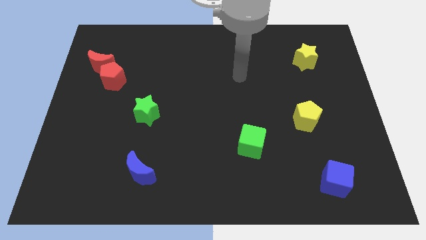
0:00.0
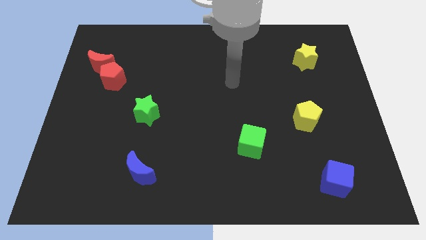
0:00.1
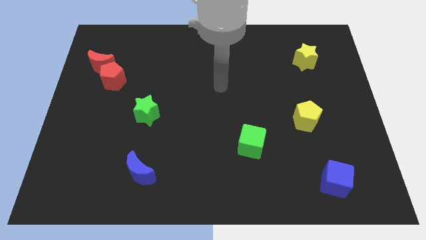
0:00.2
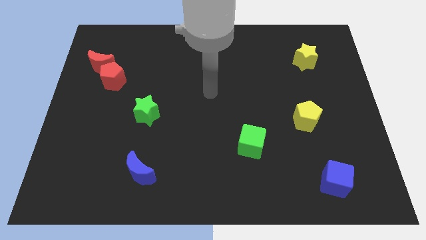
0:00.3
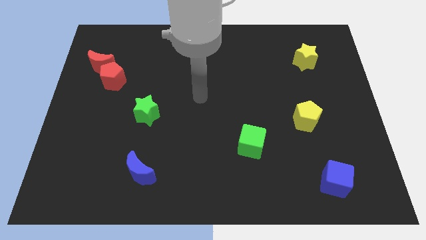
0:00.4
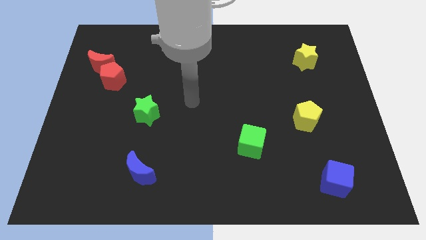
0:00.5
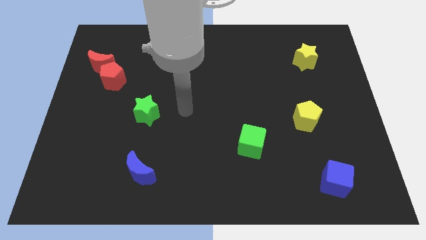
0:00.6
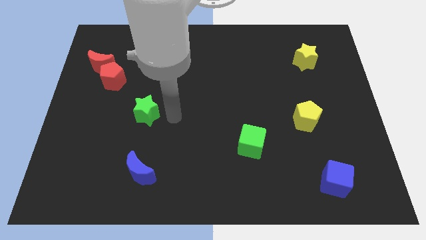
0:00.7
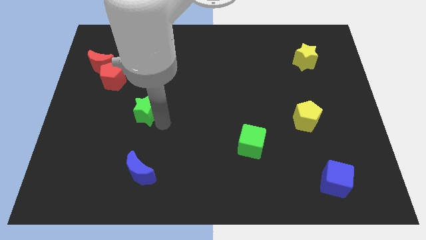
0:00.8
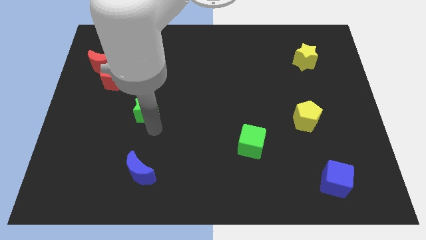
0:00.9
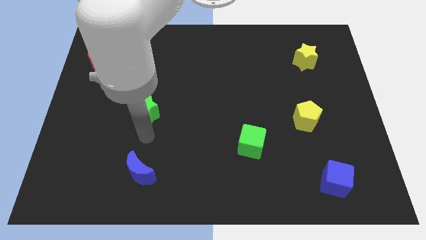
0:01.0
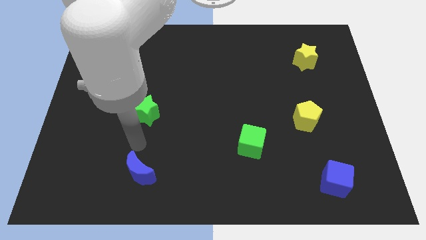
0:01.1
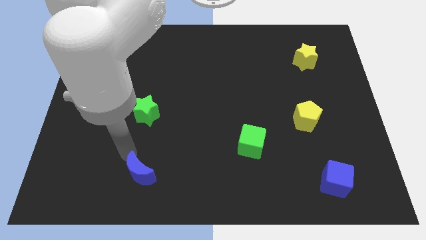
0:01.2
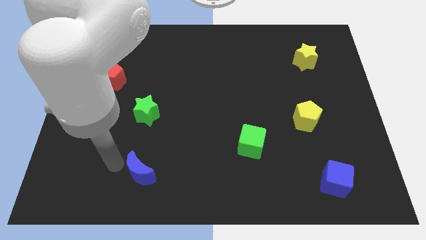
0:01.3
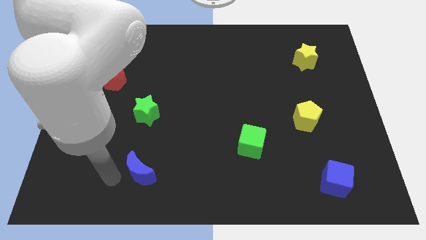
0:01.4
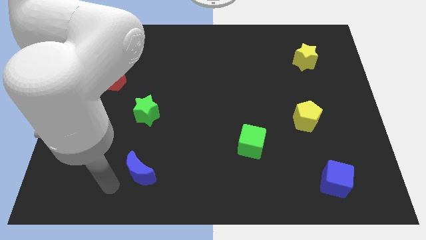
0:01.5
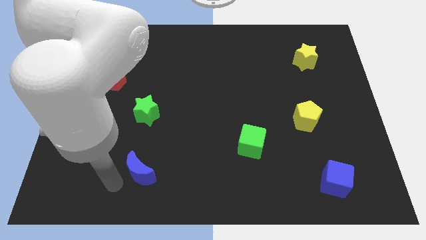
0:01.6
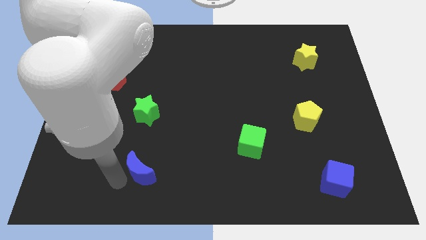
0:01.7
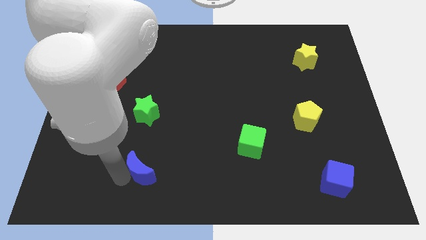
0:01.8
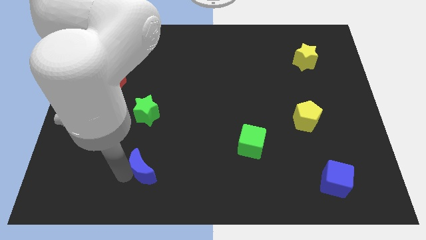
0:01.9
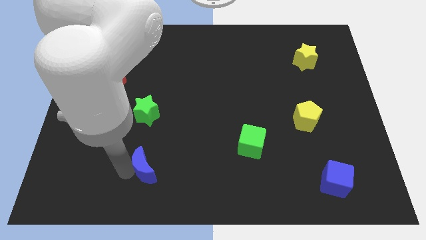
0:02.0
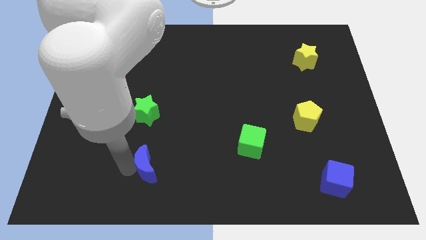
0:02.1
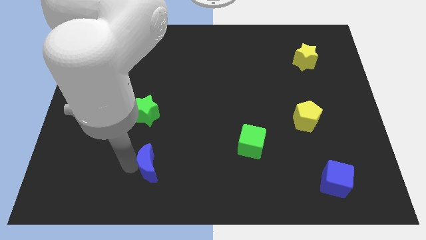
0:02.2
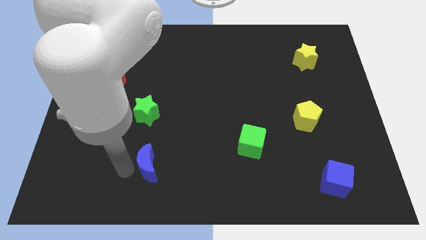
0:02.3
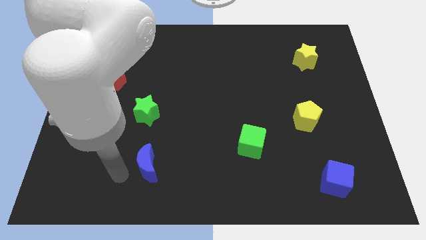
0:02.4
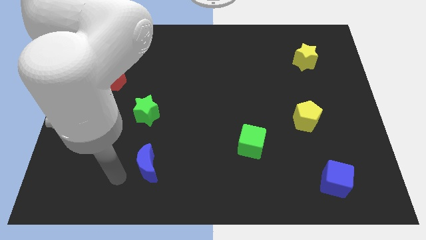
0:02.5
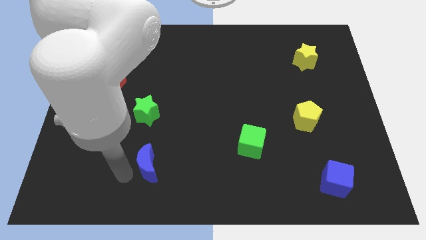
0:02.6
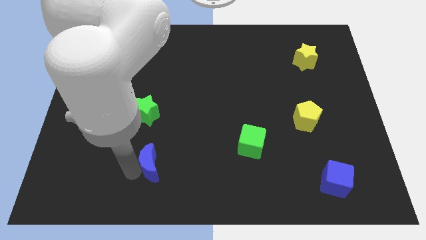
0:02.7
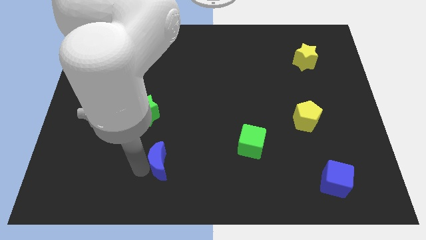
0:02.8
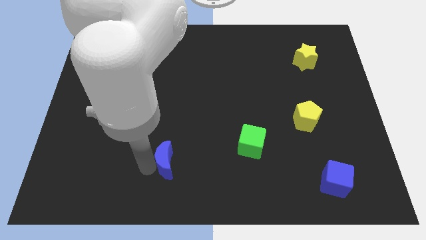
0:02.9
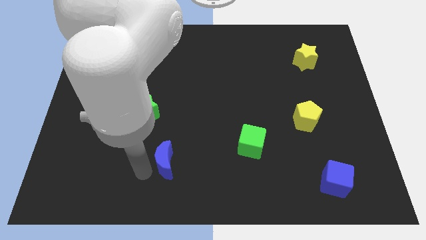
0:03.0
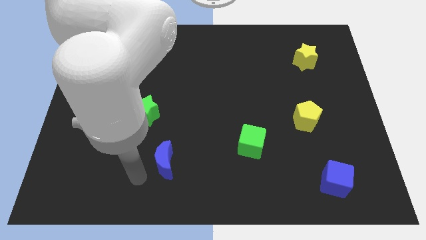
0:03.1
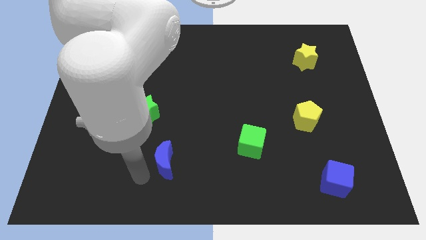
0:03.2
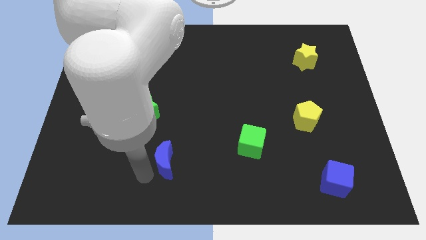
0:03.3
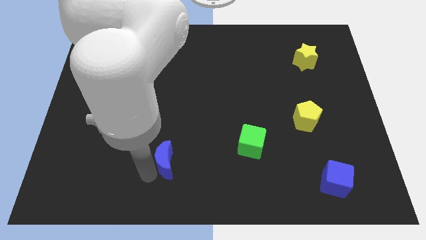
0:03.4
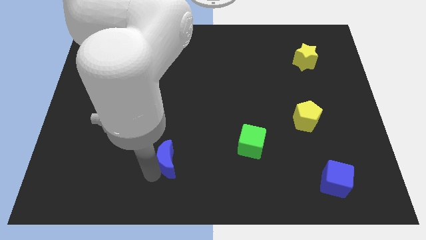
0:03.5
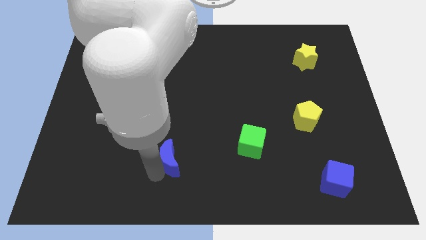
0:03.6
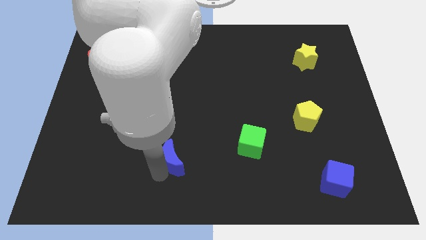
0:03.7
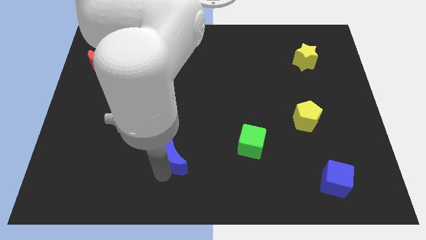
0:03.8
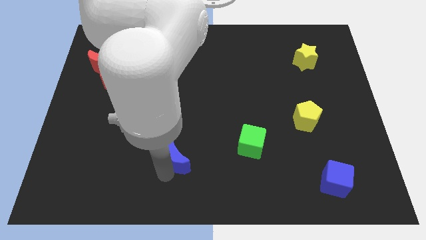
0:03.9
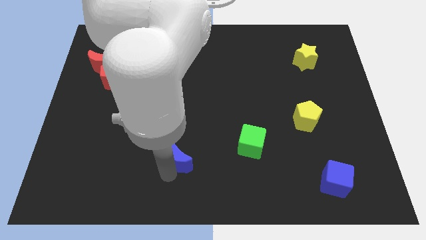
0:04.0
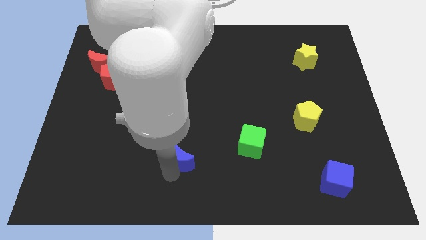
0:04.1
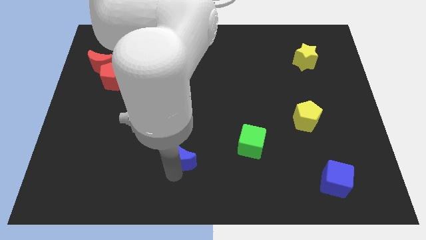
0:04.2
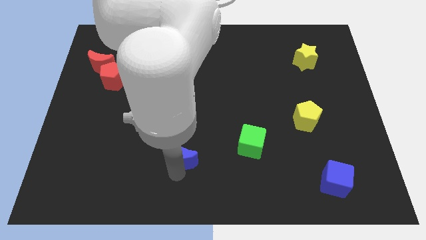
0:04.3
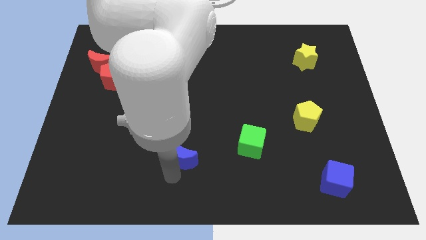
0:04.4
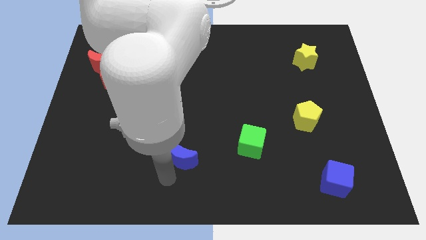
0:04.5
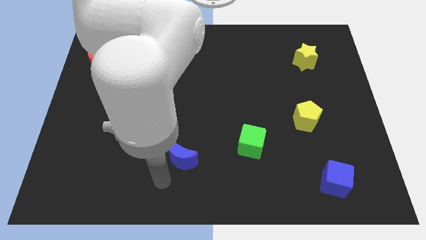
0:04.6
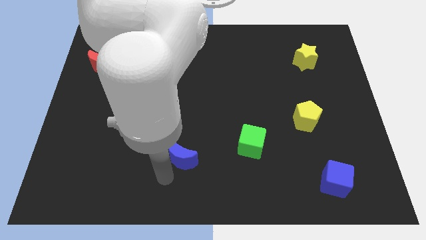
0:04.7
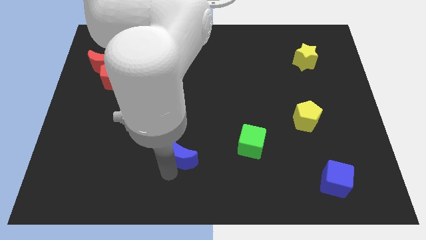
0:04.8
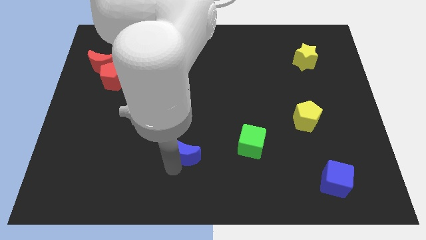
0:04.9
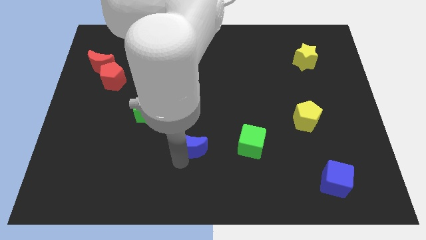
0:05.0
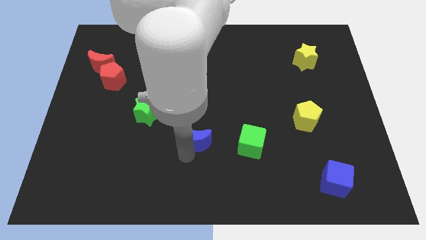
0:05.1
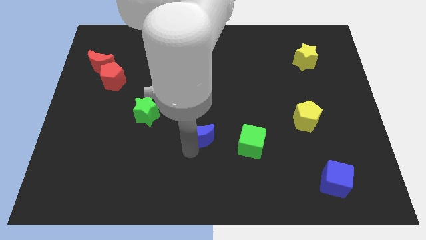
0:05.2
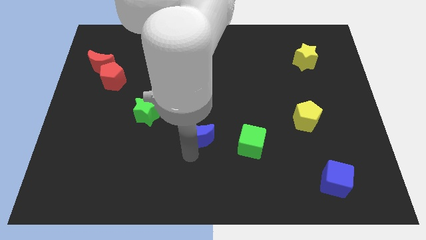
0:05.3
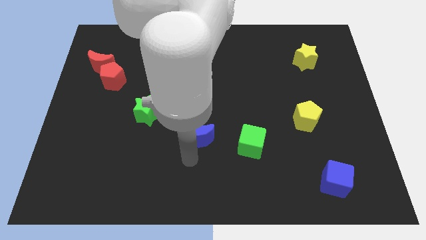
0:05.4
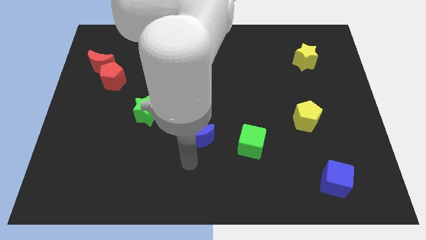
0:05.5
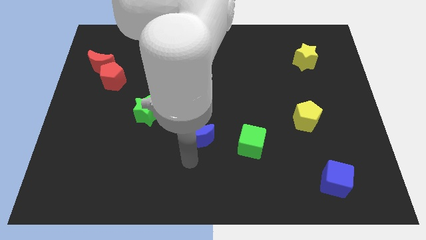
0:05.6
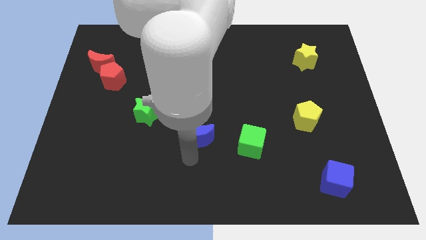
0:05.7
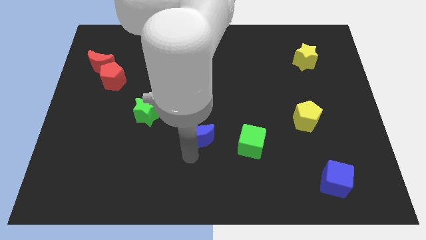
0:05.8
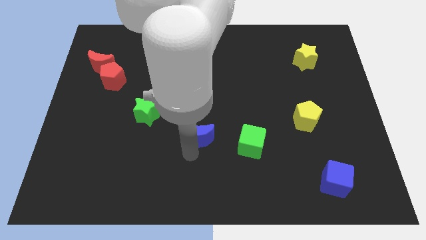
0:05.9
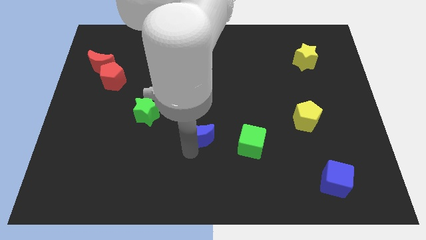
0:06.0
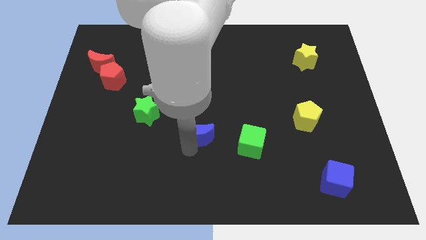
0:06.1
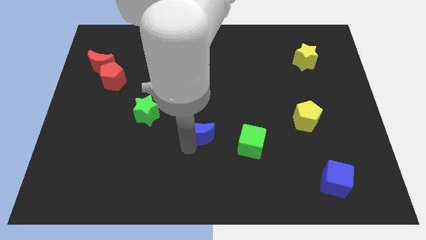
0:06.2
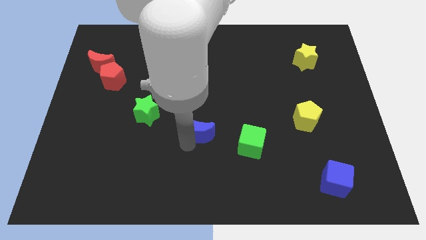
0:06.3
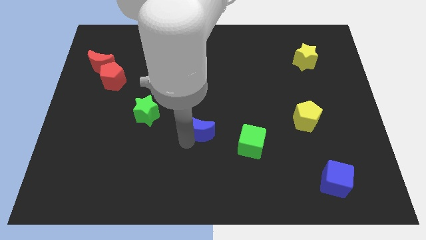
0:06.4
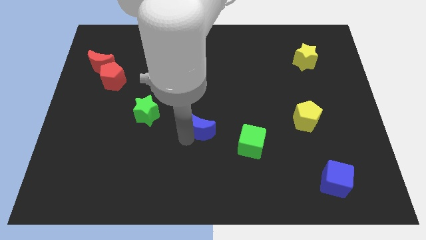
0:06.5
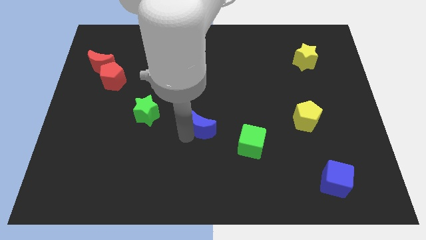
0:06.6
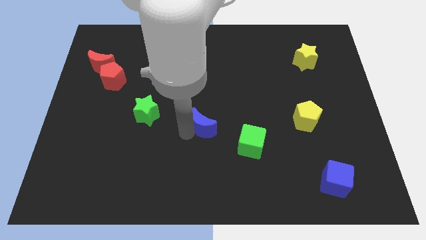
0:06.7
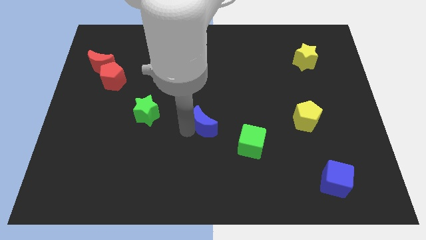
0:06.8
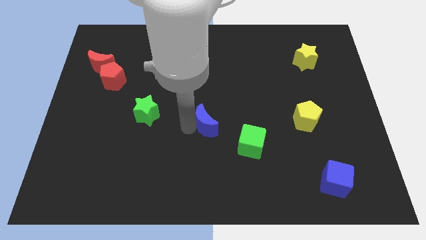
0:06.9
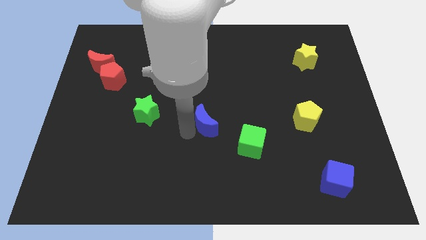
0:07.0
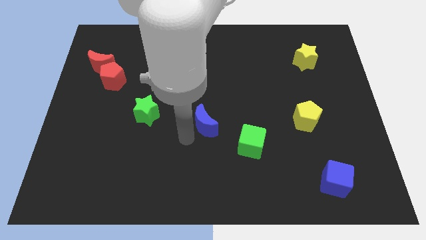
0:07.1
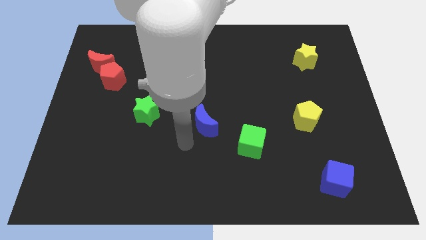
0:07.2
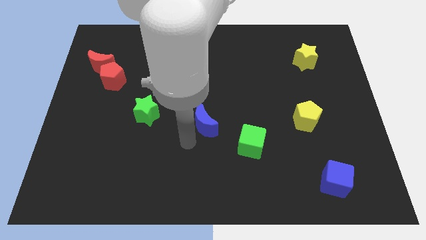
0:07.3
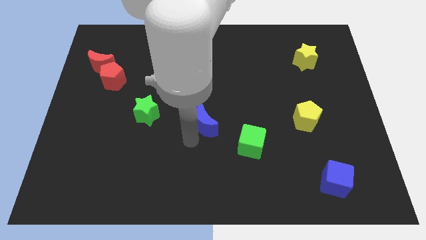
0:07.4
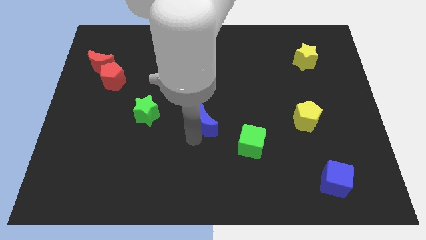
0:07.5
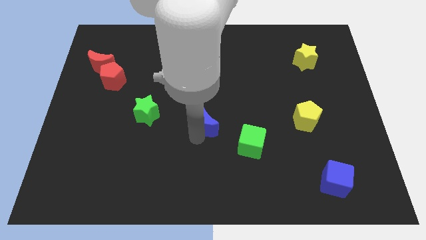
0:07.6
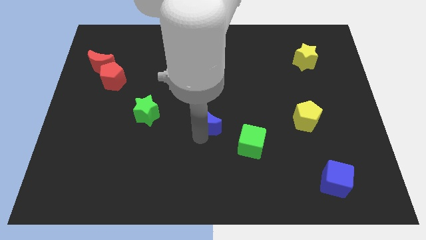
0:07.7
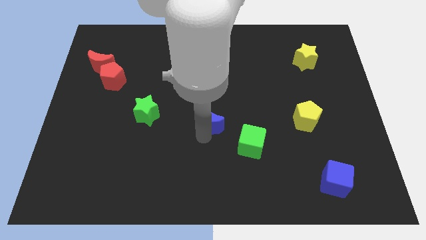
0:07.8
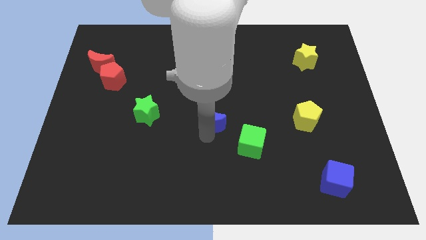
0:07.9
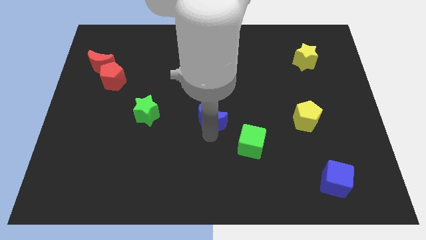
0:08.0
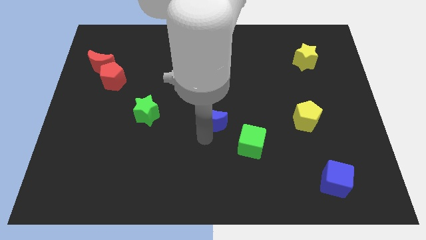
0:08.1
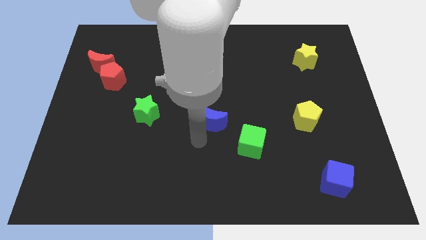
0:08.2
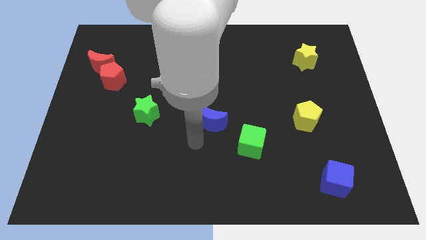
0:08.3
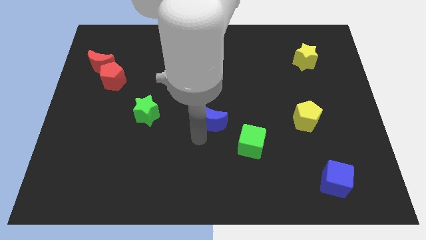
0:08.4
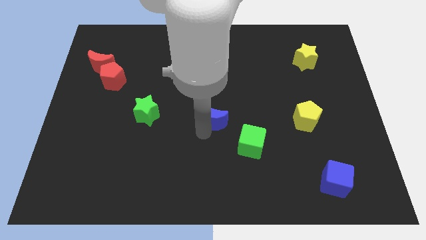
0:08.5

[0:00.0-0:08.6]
move the blue moon diagonally up and to the right
